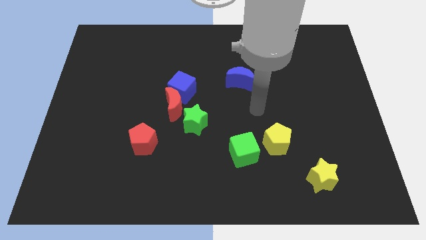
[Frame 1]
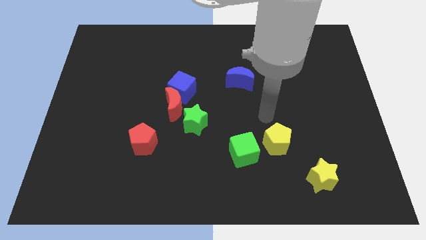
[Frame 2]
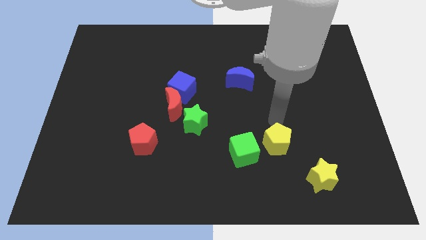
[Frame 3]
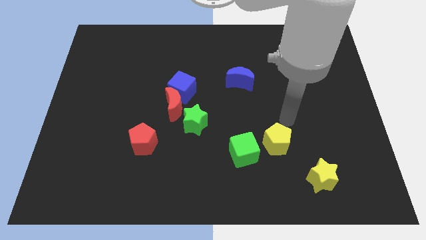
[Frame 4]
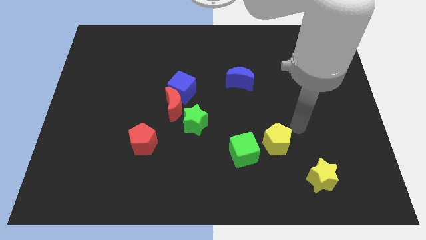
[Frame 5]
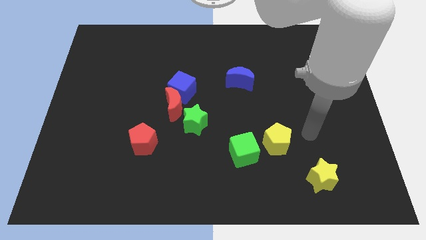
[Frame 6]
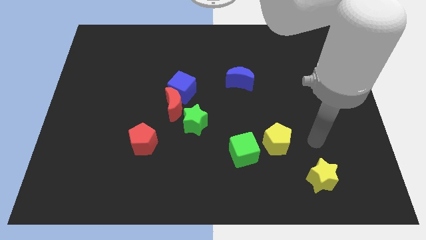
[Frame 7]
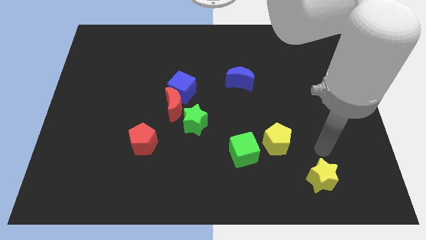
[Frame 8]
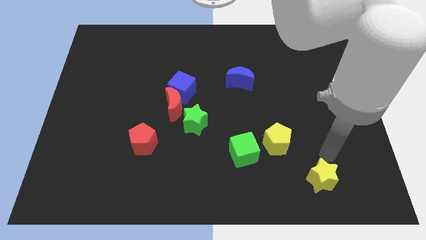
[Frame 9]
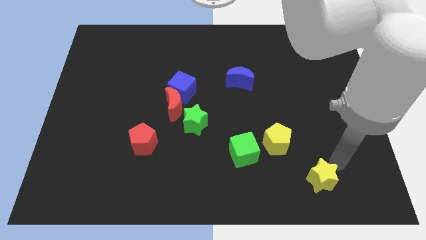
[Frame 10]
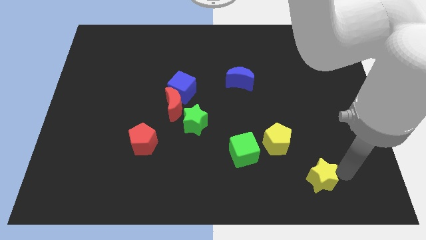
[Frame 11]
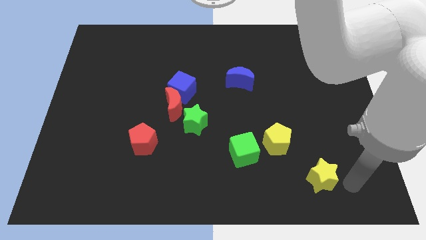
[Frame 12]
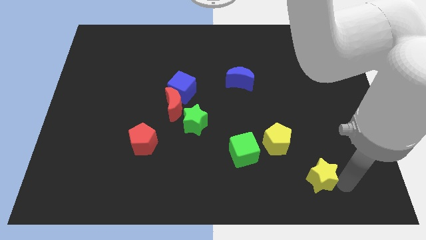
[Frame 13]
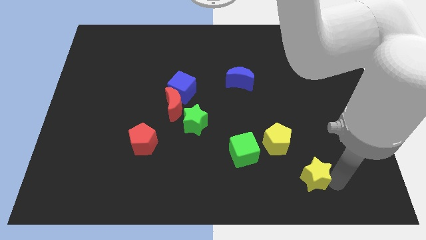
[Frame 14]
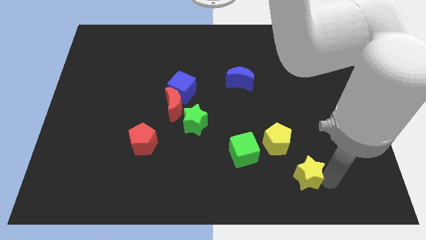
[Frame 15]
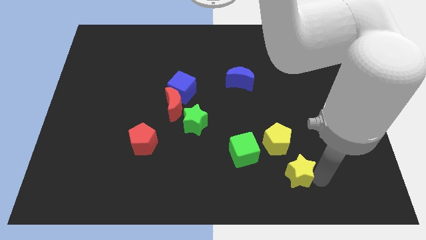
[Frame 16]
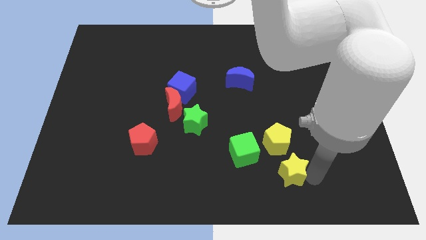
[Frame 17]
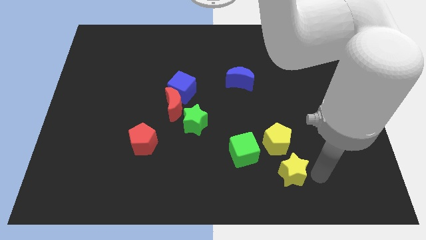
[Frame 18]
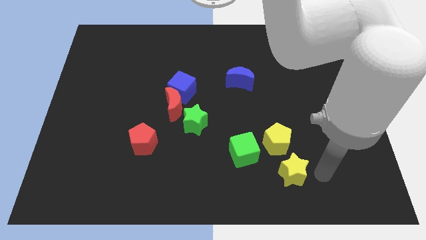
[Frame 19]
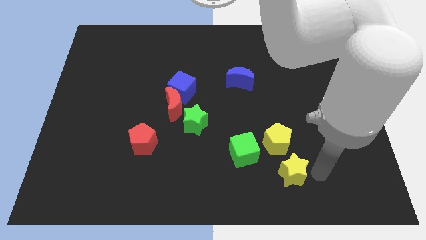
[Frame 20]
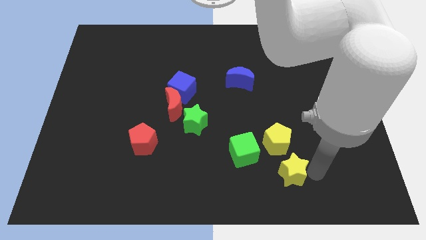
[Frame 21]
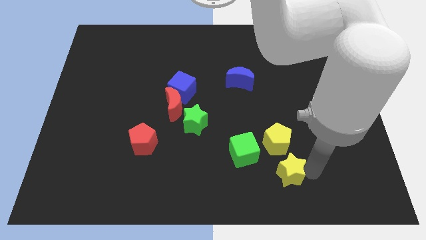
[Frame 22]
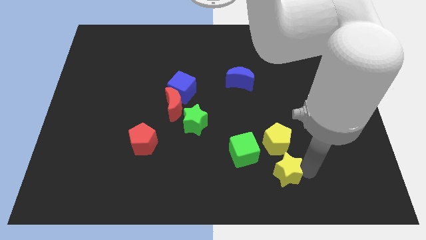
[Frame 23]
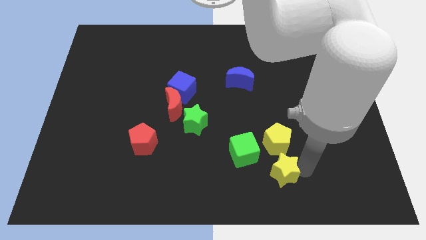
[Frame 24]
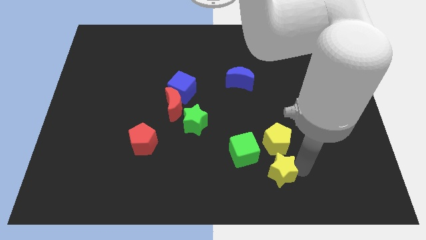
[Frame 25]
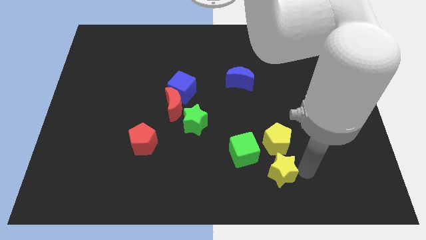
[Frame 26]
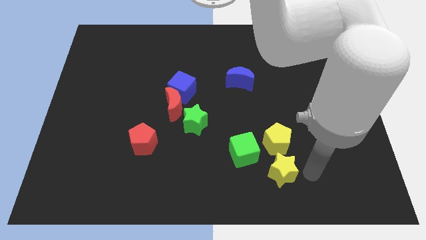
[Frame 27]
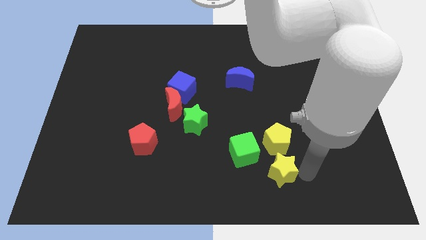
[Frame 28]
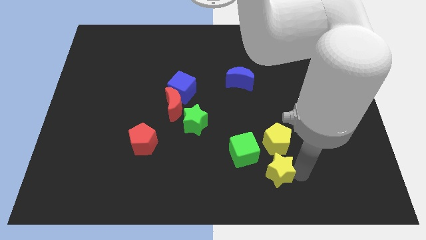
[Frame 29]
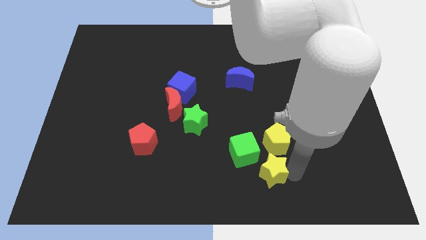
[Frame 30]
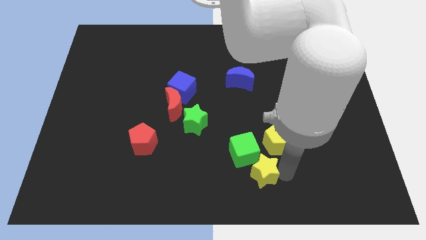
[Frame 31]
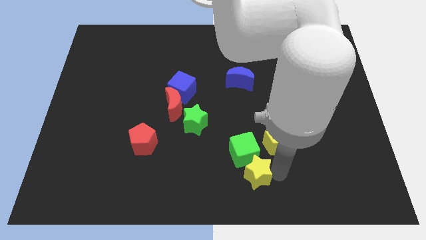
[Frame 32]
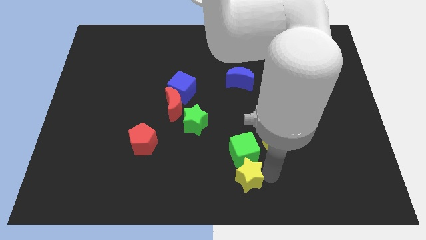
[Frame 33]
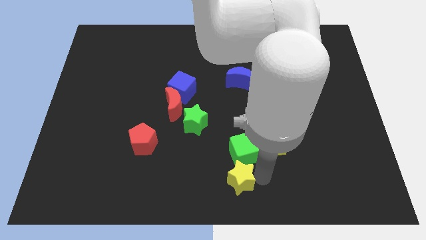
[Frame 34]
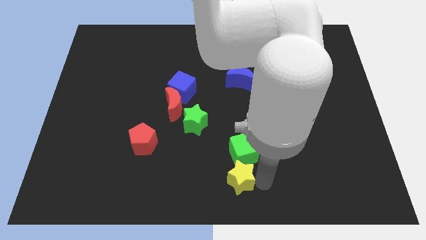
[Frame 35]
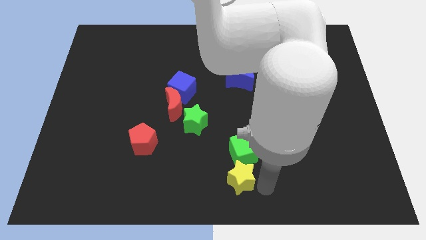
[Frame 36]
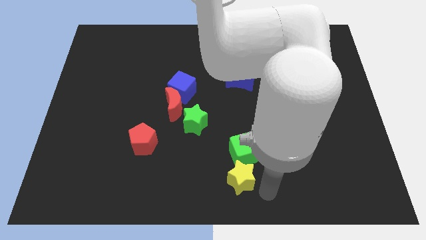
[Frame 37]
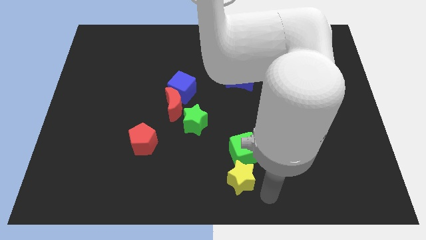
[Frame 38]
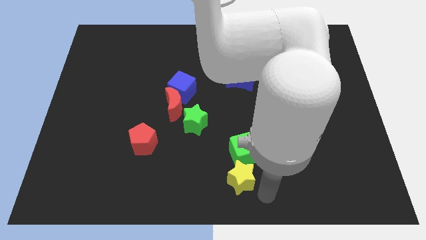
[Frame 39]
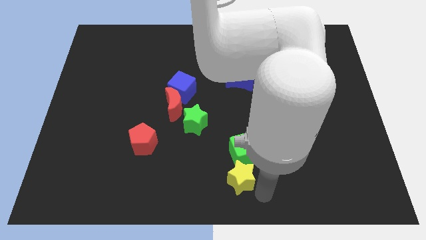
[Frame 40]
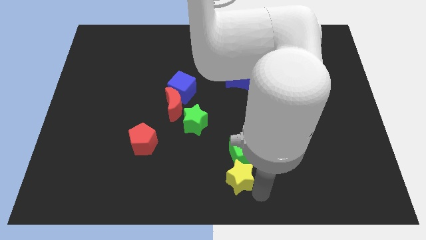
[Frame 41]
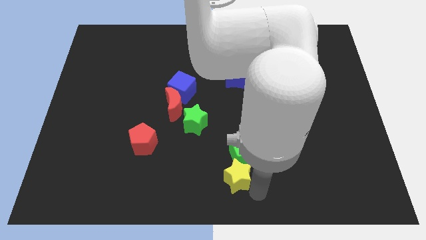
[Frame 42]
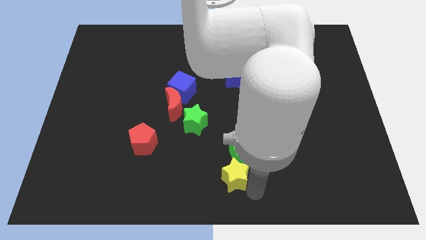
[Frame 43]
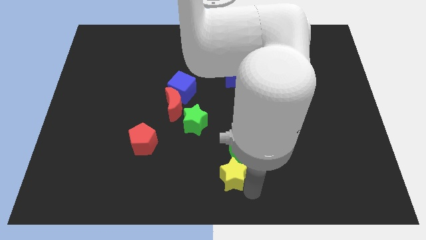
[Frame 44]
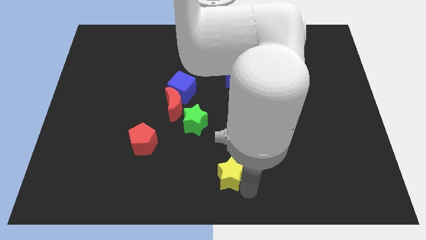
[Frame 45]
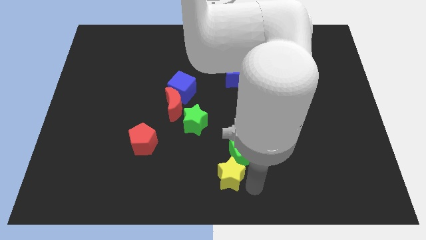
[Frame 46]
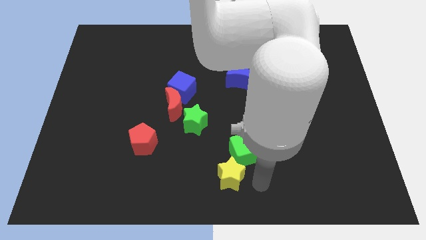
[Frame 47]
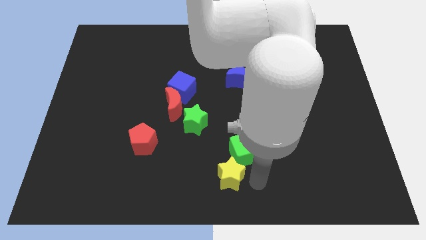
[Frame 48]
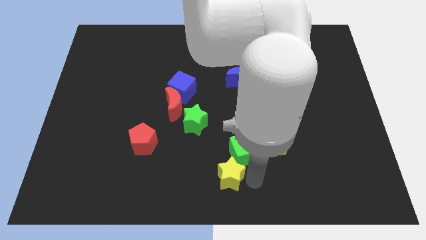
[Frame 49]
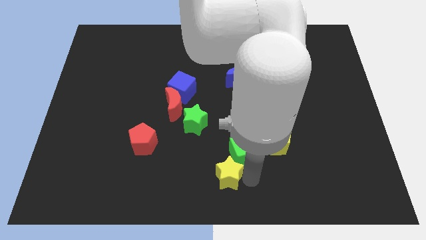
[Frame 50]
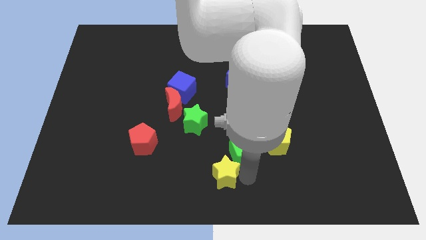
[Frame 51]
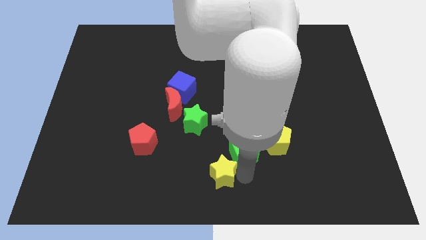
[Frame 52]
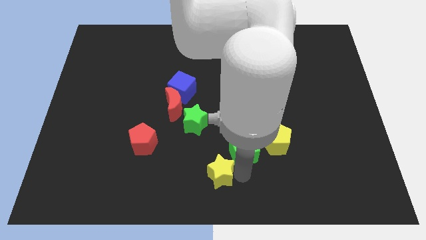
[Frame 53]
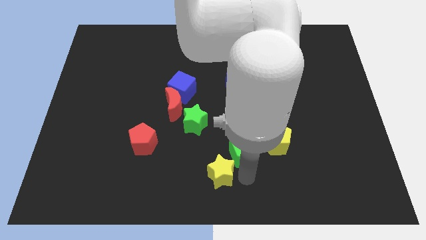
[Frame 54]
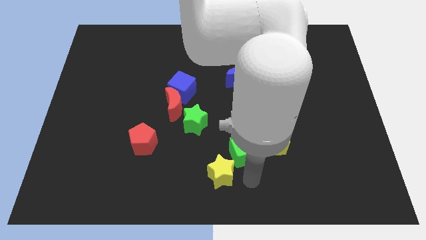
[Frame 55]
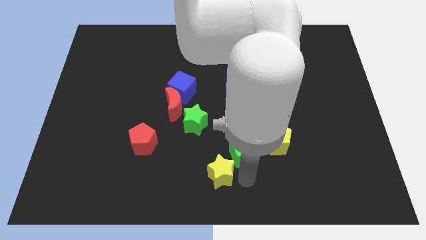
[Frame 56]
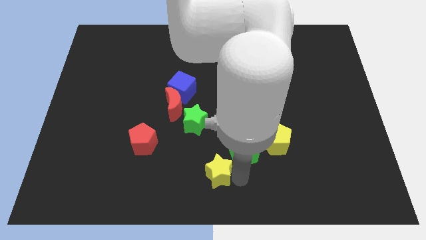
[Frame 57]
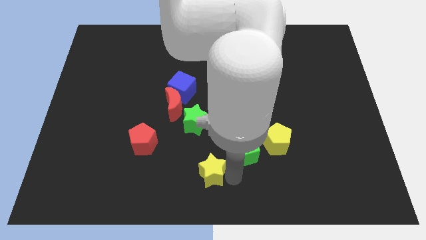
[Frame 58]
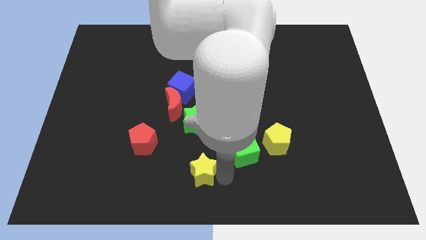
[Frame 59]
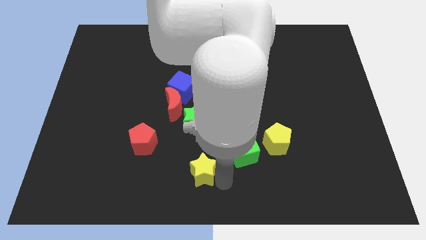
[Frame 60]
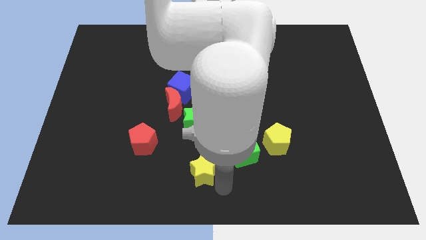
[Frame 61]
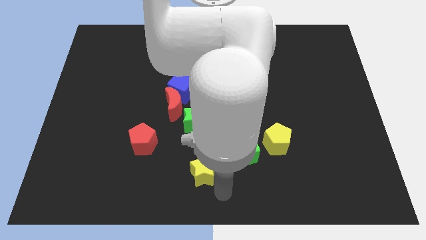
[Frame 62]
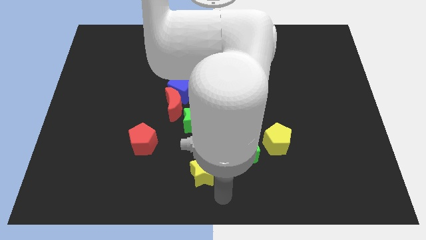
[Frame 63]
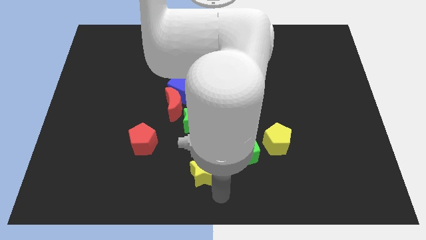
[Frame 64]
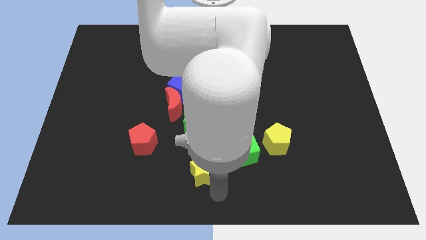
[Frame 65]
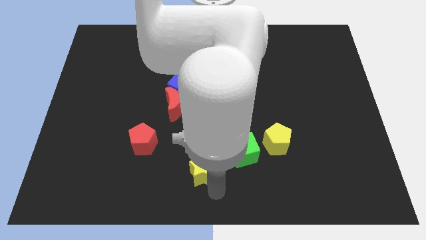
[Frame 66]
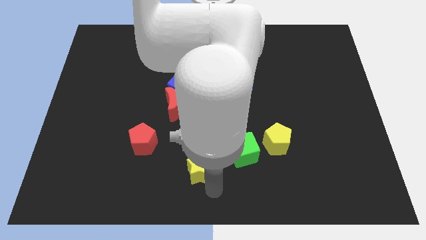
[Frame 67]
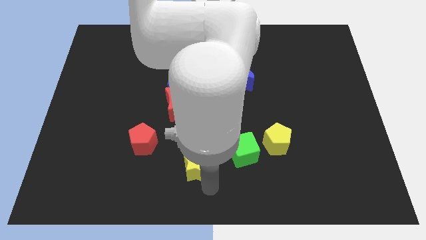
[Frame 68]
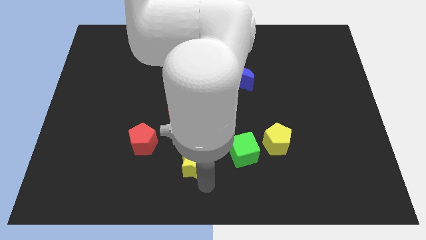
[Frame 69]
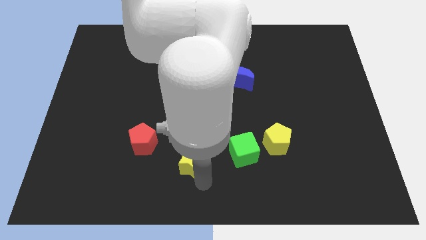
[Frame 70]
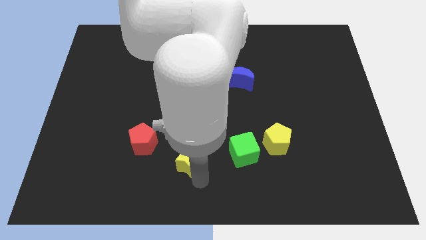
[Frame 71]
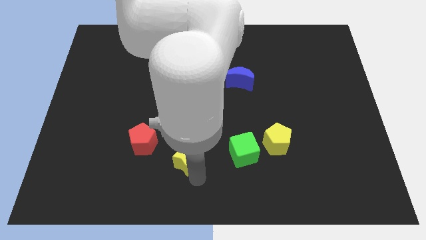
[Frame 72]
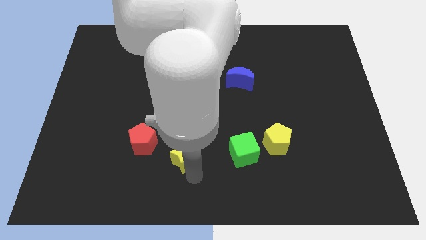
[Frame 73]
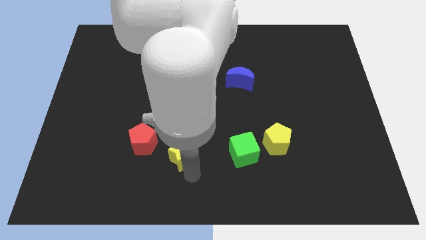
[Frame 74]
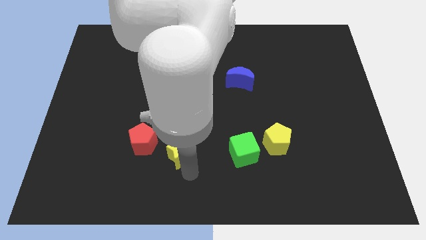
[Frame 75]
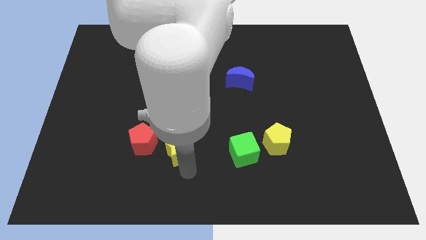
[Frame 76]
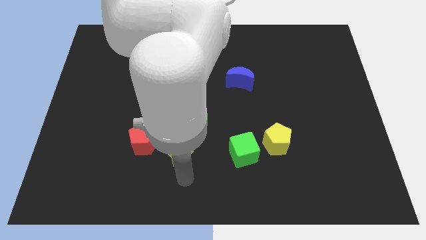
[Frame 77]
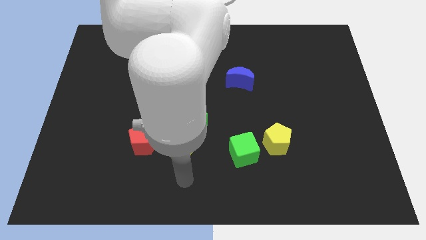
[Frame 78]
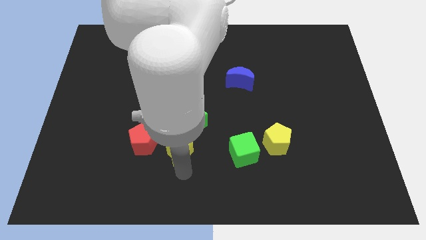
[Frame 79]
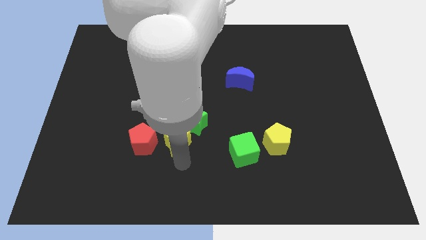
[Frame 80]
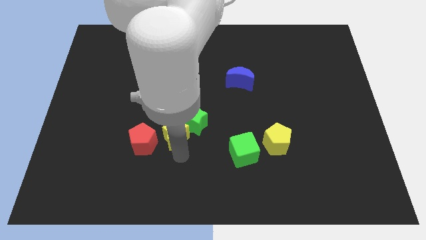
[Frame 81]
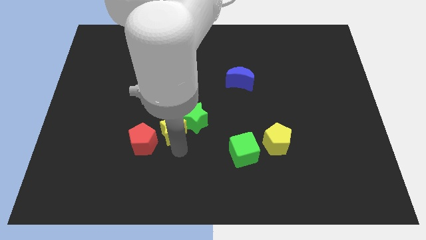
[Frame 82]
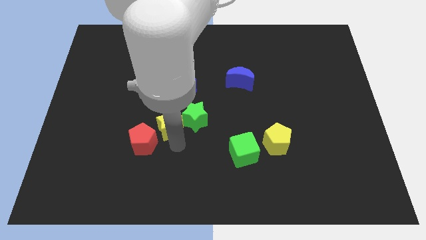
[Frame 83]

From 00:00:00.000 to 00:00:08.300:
slide the yellow star close to the red moon
